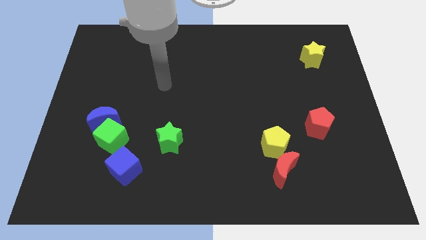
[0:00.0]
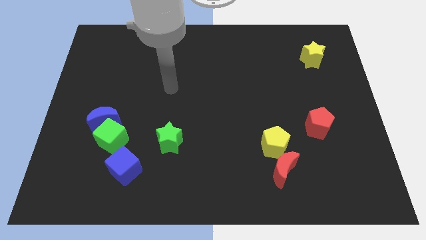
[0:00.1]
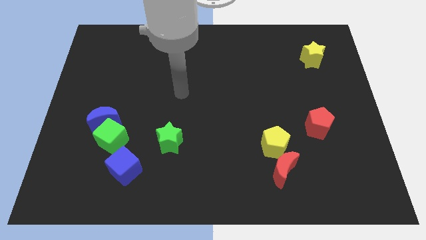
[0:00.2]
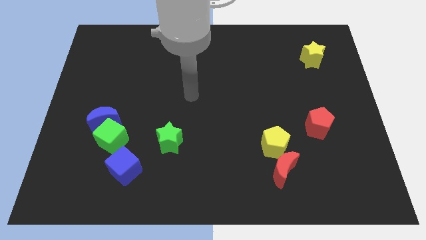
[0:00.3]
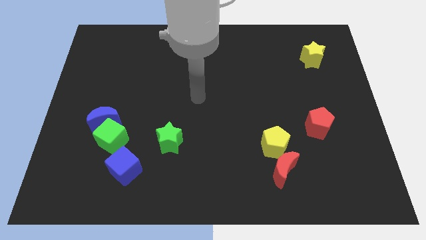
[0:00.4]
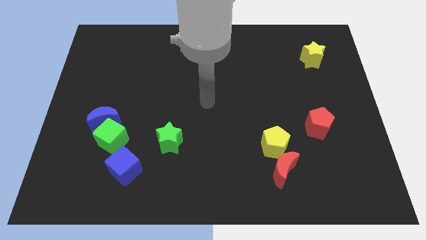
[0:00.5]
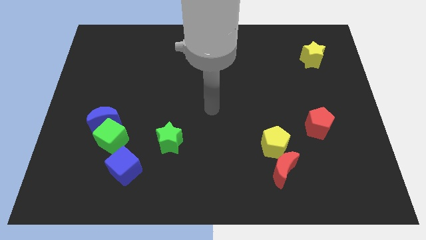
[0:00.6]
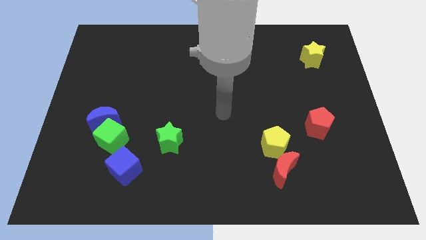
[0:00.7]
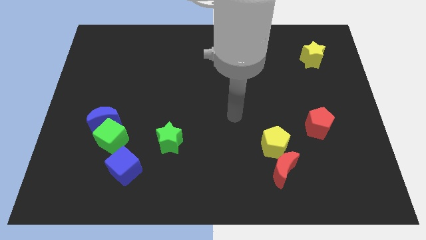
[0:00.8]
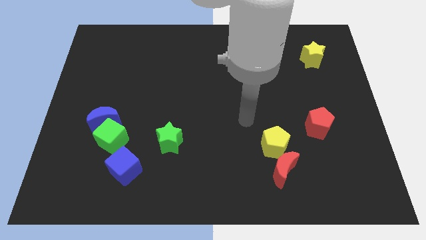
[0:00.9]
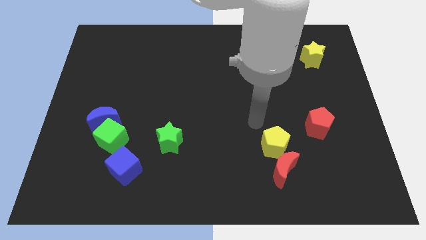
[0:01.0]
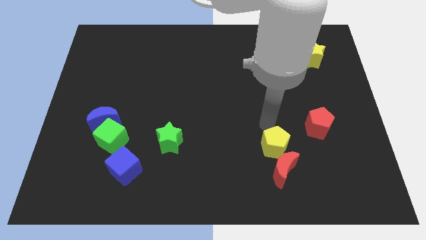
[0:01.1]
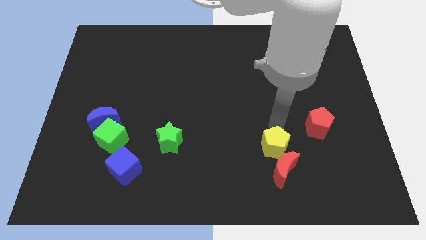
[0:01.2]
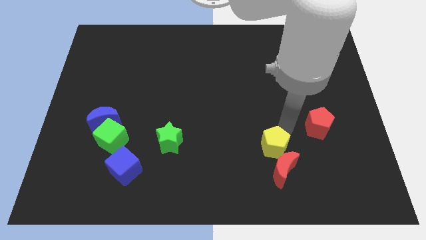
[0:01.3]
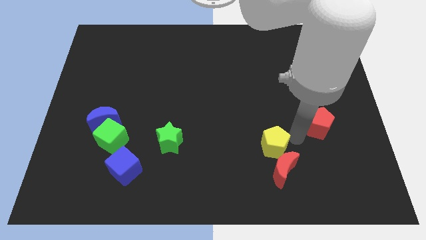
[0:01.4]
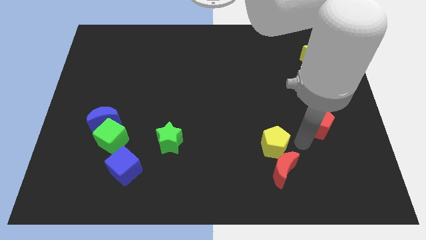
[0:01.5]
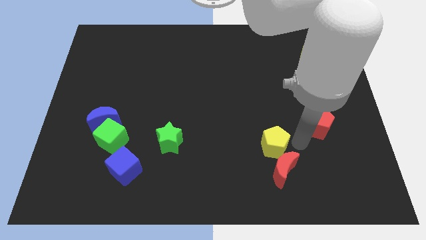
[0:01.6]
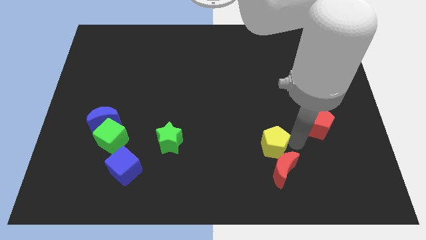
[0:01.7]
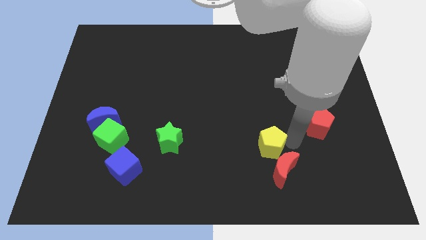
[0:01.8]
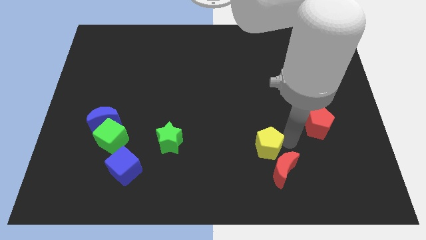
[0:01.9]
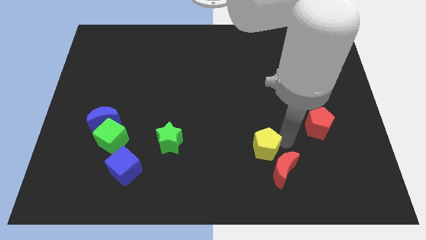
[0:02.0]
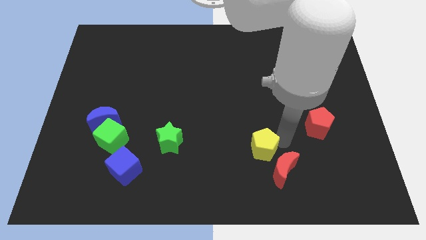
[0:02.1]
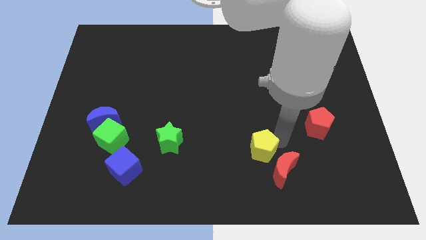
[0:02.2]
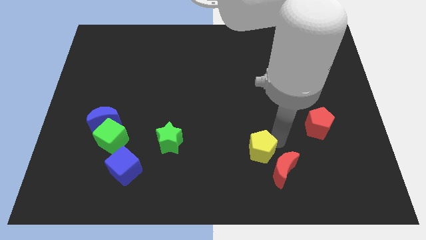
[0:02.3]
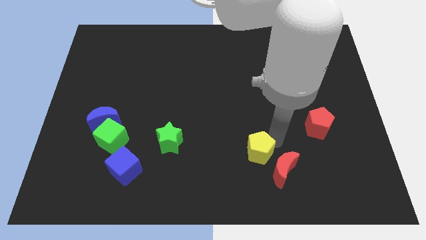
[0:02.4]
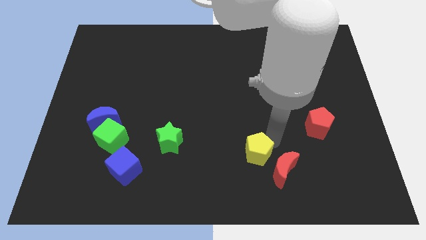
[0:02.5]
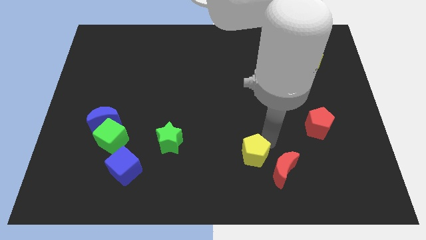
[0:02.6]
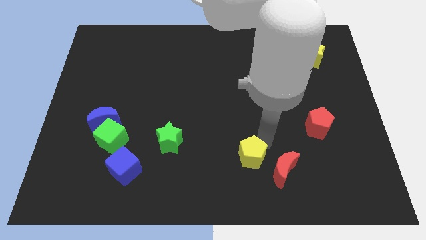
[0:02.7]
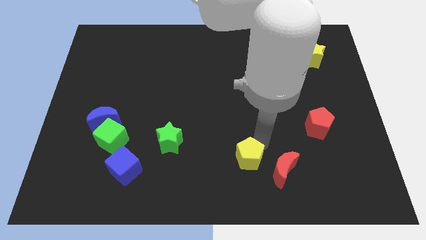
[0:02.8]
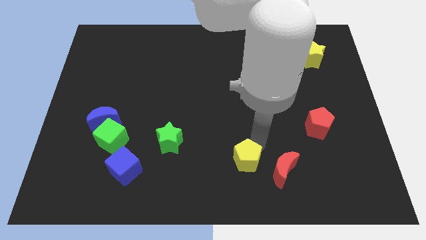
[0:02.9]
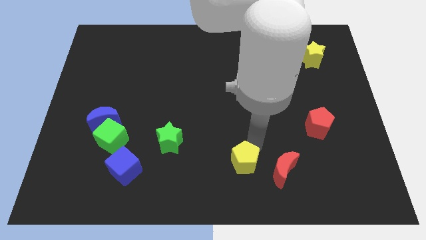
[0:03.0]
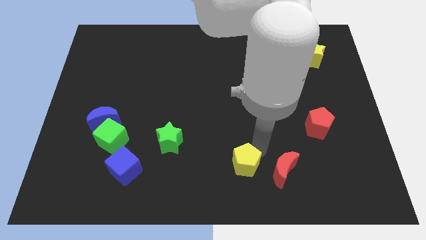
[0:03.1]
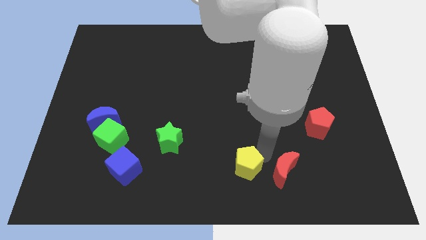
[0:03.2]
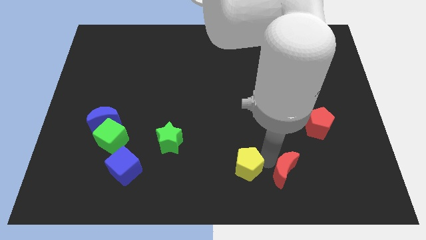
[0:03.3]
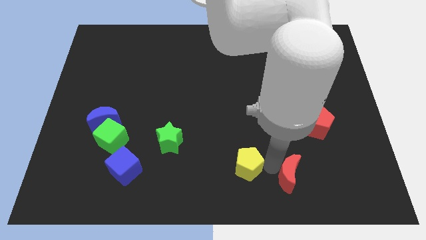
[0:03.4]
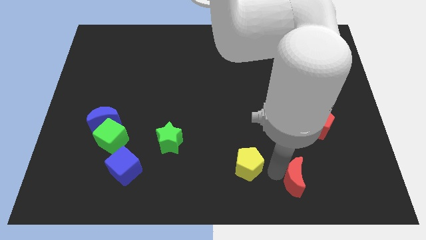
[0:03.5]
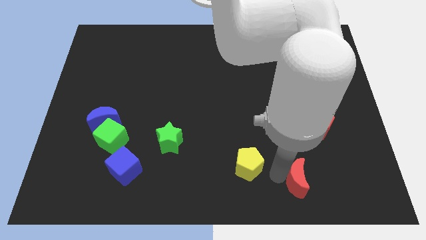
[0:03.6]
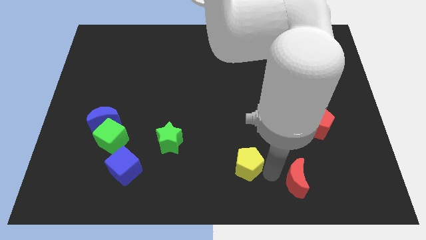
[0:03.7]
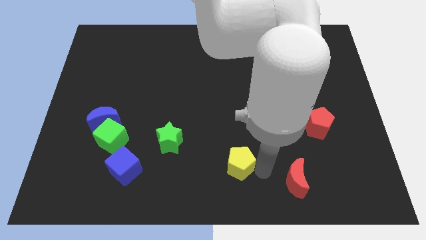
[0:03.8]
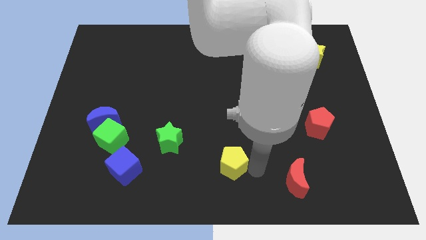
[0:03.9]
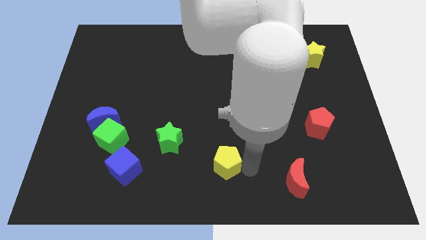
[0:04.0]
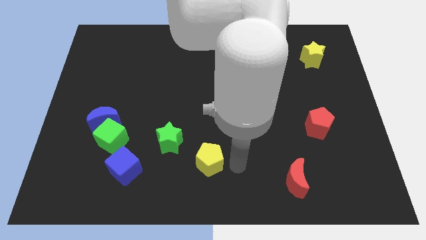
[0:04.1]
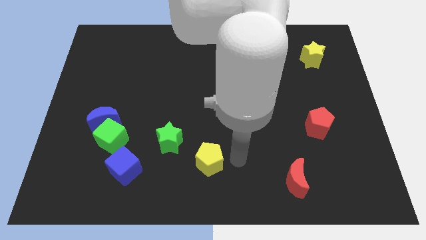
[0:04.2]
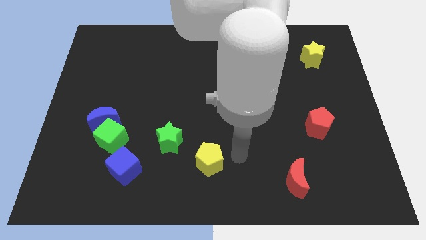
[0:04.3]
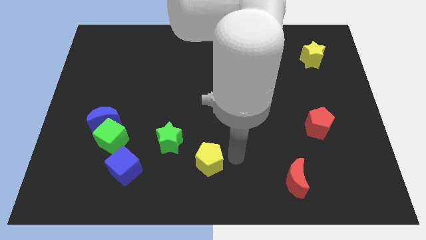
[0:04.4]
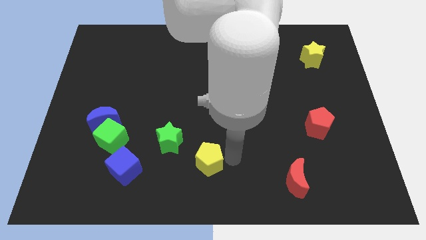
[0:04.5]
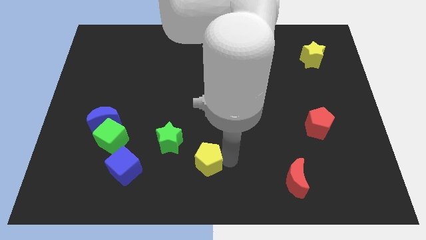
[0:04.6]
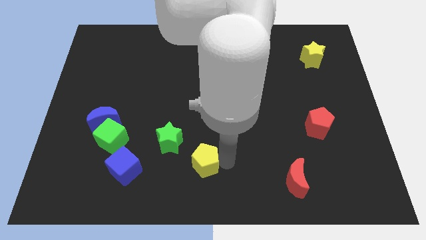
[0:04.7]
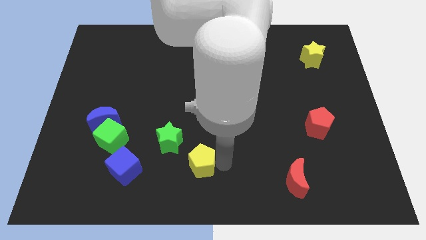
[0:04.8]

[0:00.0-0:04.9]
slide the yellow pentagon to the right of the blue cube

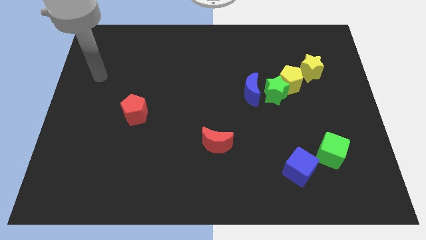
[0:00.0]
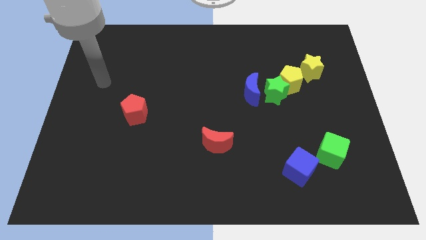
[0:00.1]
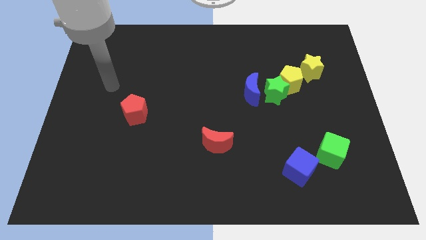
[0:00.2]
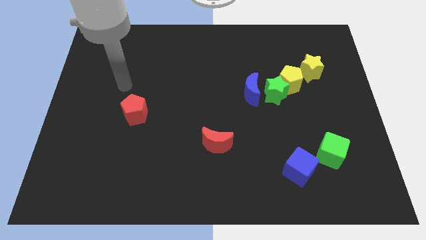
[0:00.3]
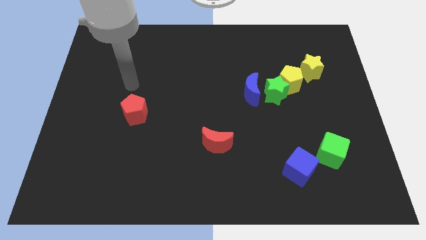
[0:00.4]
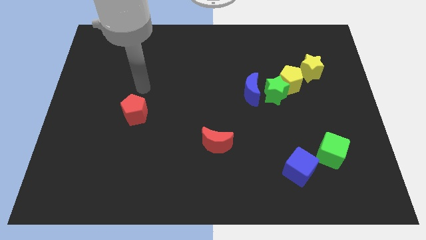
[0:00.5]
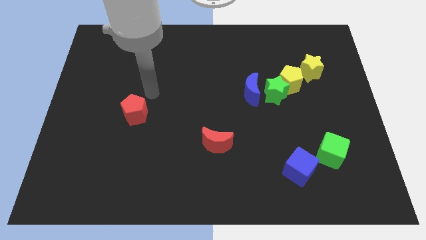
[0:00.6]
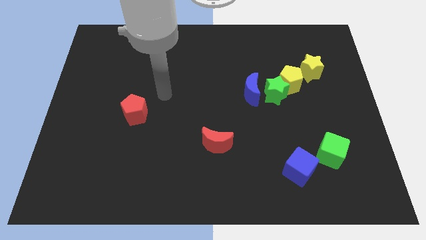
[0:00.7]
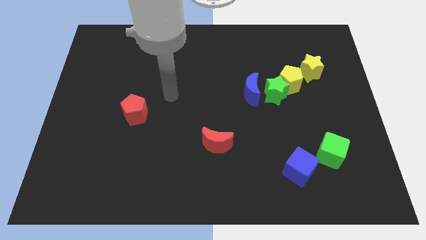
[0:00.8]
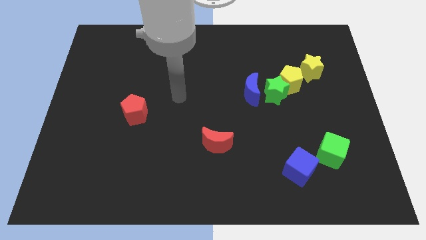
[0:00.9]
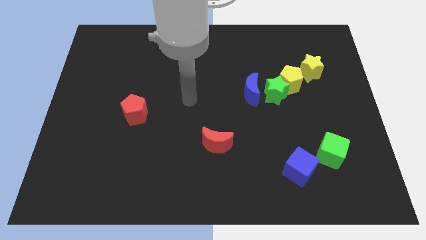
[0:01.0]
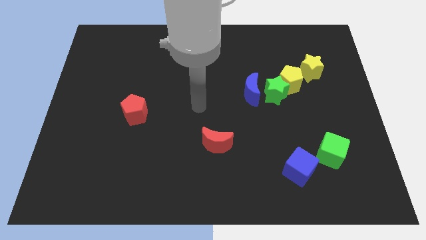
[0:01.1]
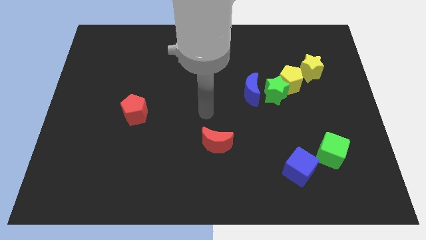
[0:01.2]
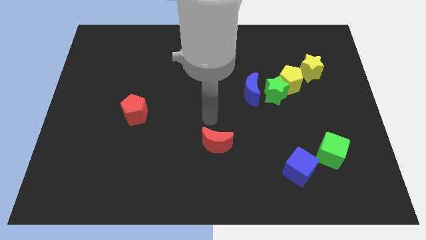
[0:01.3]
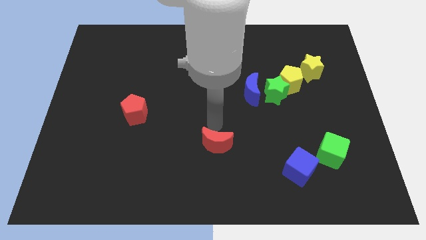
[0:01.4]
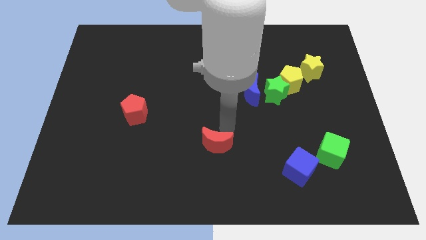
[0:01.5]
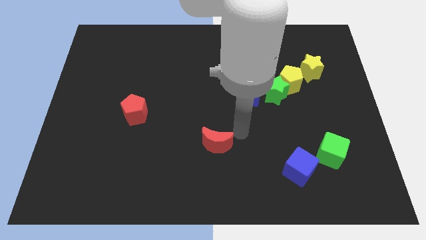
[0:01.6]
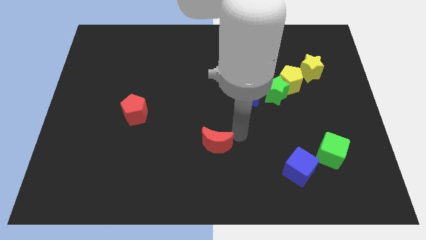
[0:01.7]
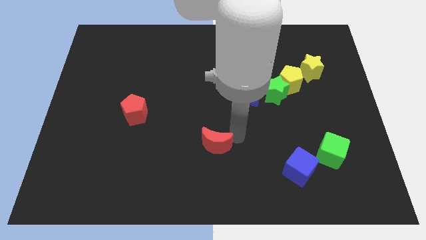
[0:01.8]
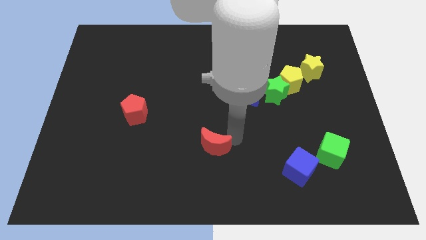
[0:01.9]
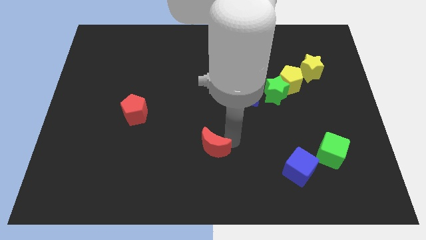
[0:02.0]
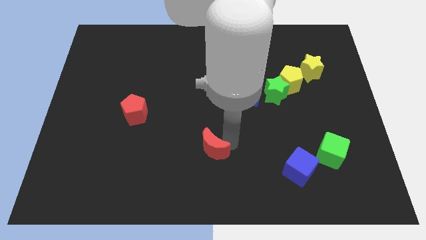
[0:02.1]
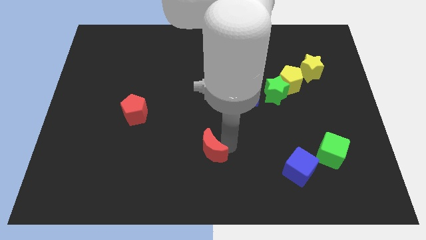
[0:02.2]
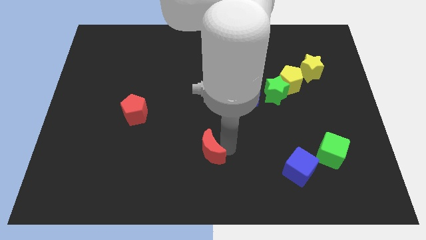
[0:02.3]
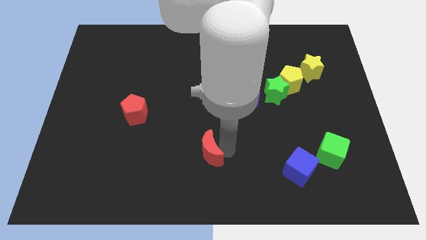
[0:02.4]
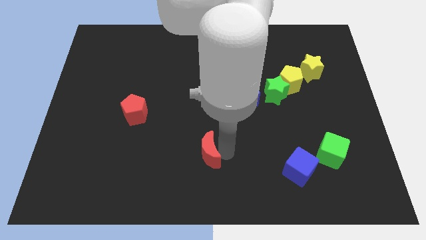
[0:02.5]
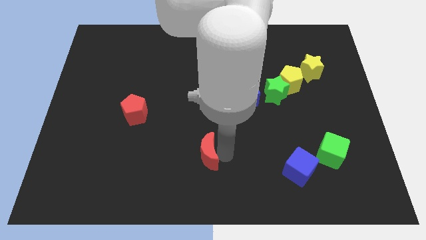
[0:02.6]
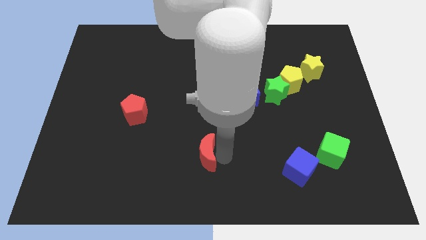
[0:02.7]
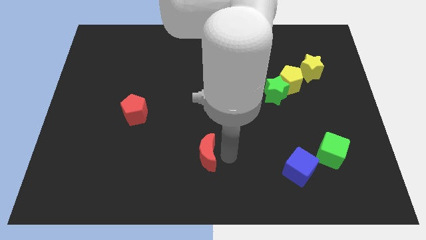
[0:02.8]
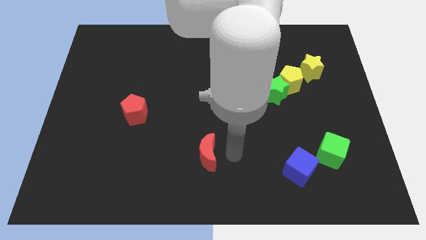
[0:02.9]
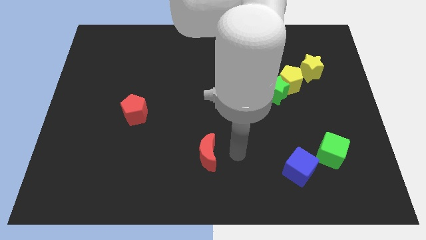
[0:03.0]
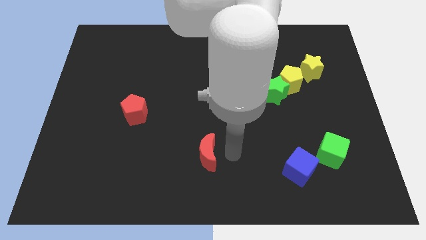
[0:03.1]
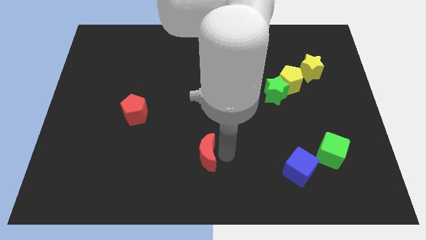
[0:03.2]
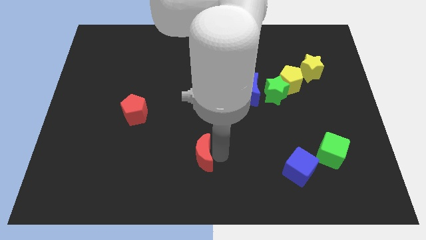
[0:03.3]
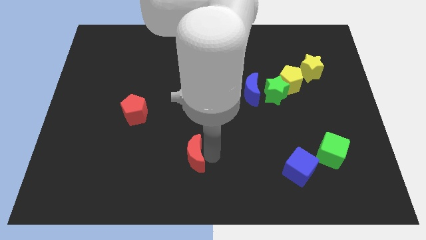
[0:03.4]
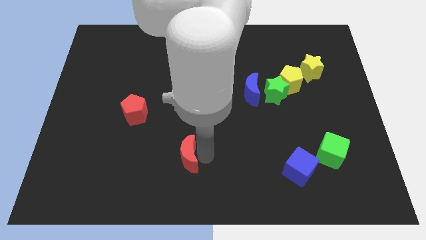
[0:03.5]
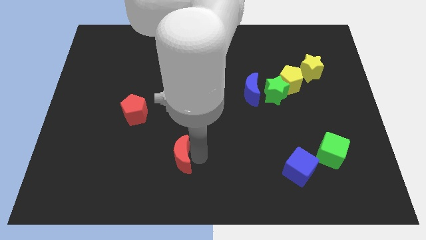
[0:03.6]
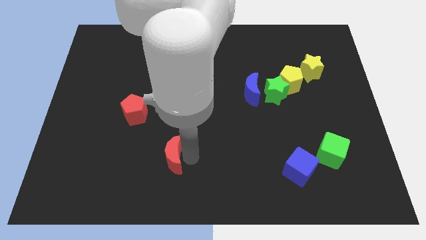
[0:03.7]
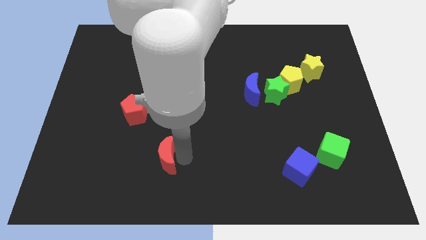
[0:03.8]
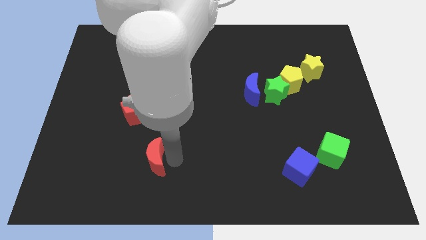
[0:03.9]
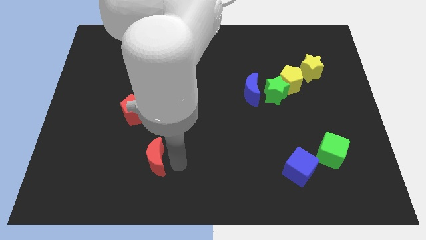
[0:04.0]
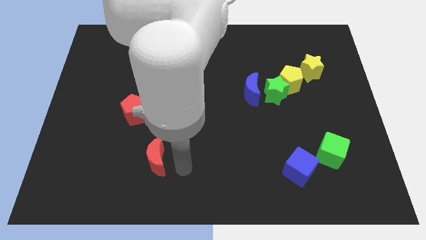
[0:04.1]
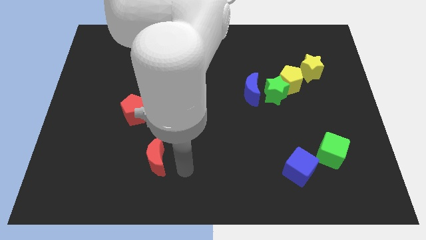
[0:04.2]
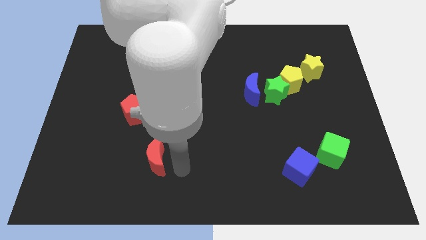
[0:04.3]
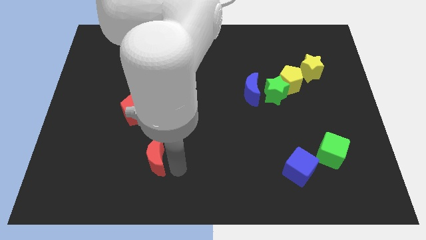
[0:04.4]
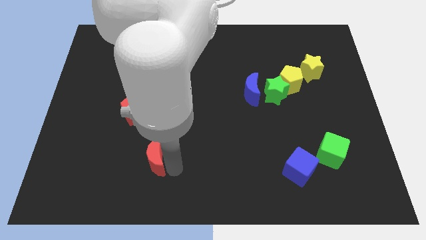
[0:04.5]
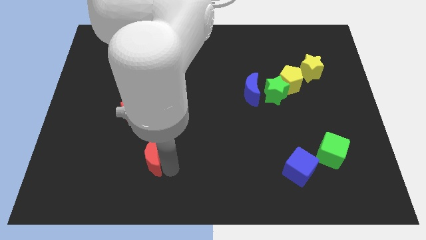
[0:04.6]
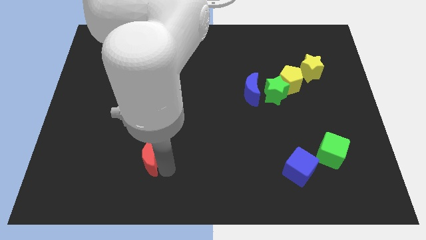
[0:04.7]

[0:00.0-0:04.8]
move the red moon below the red pentagon
